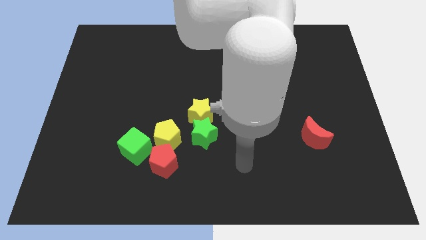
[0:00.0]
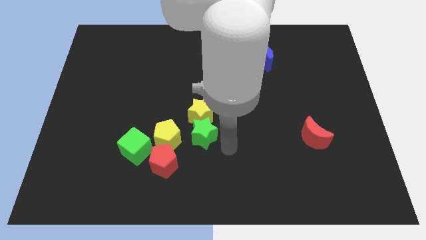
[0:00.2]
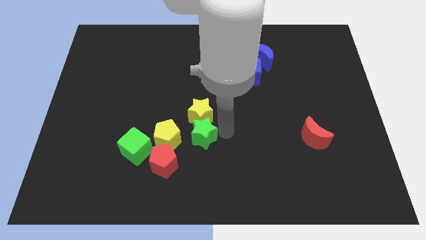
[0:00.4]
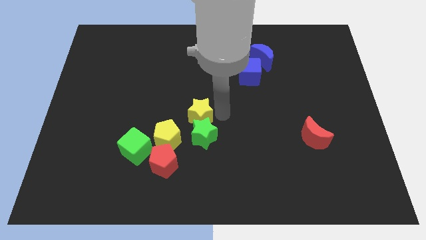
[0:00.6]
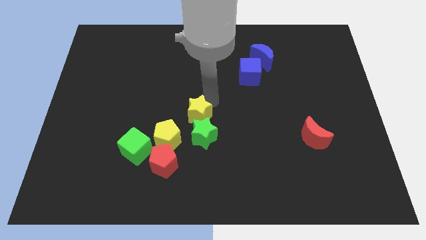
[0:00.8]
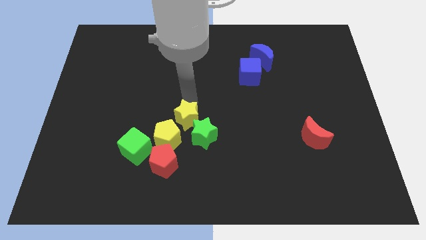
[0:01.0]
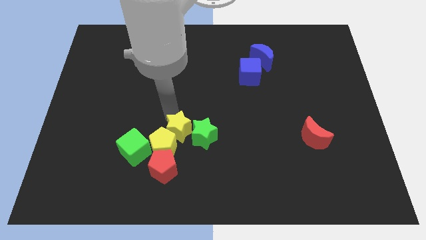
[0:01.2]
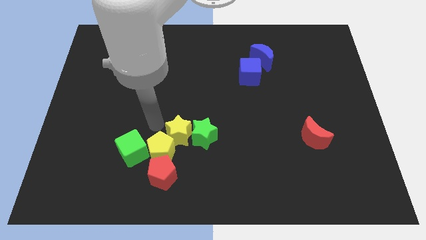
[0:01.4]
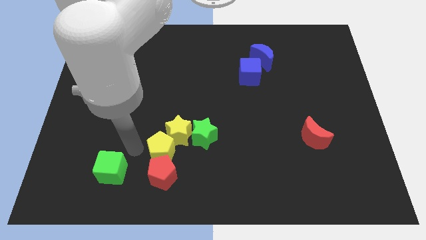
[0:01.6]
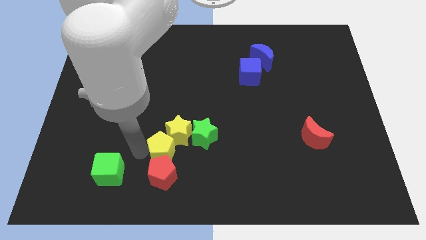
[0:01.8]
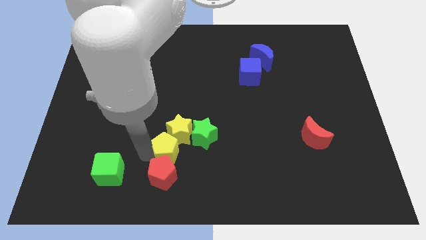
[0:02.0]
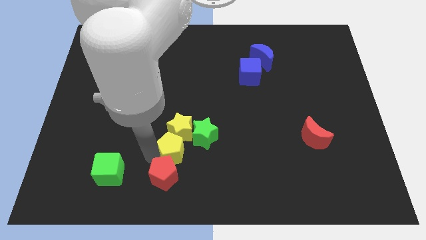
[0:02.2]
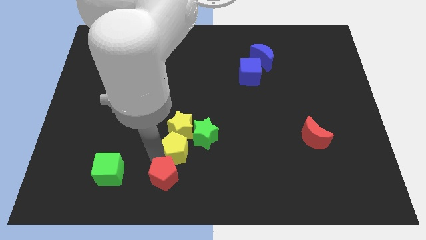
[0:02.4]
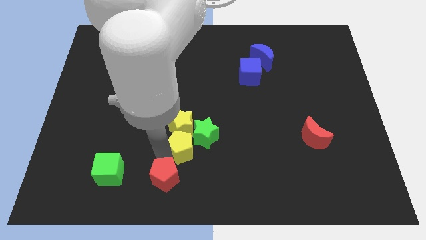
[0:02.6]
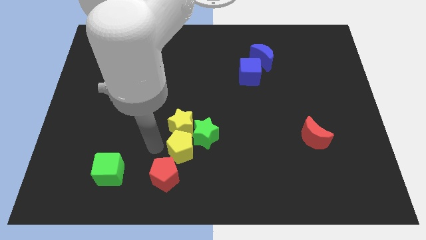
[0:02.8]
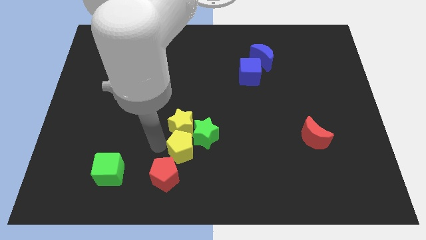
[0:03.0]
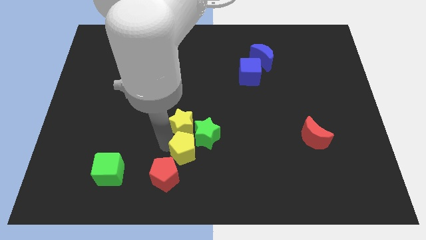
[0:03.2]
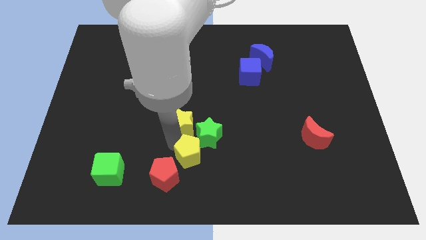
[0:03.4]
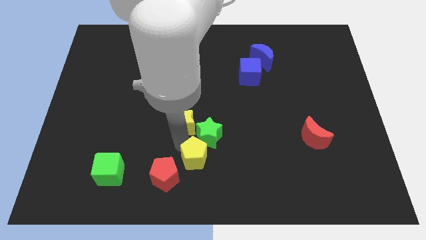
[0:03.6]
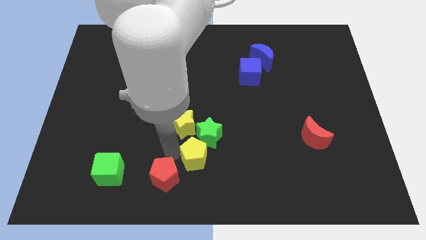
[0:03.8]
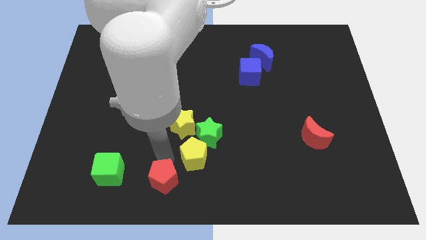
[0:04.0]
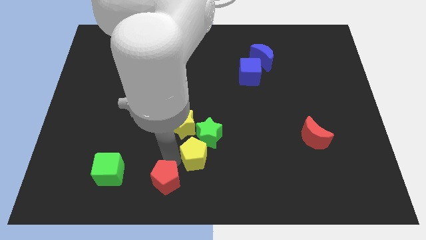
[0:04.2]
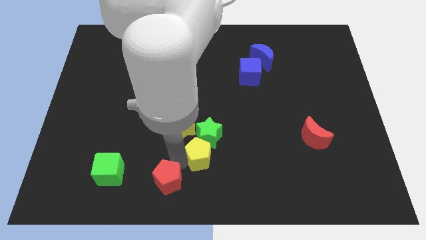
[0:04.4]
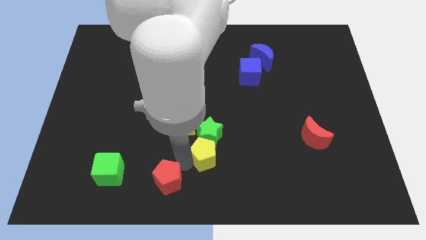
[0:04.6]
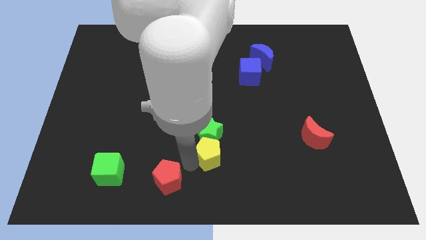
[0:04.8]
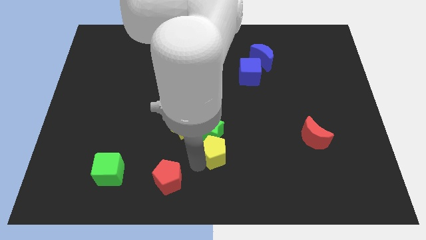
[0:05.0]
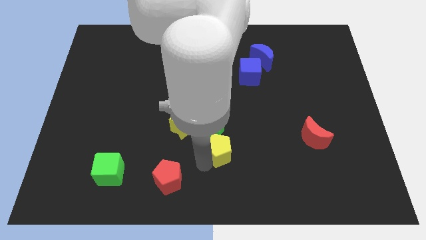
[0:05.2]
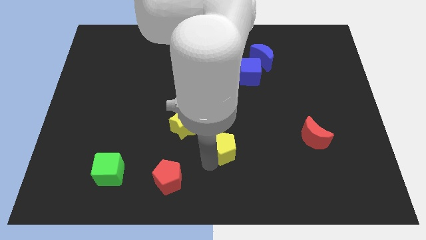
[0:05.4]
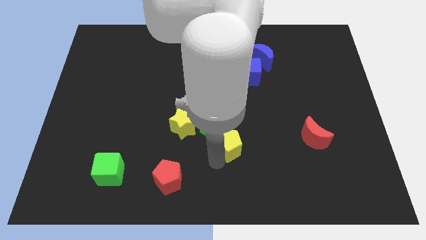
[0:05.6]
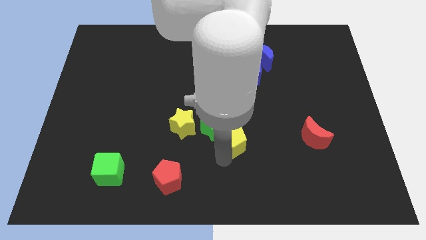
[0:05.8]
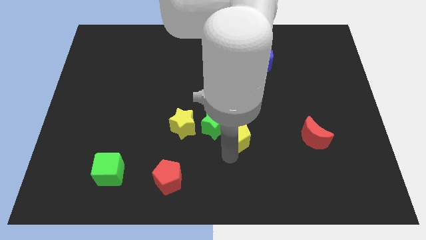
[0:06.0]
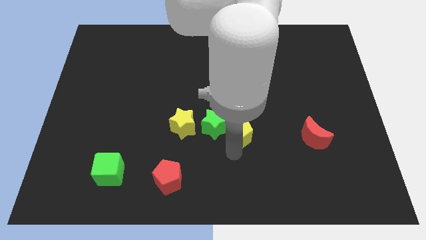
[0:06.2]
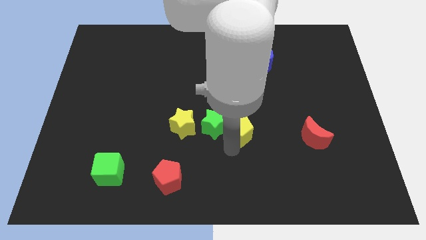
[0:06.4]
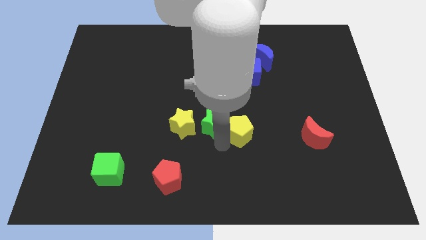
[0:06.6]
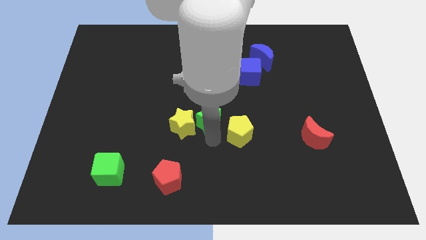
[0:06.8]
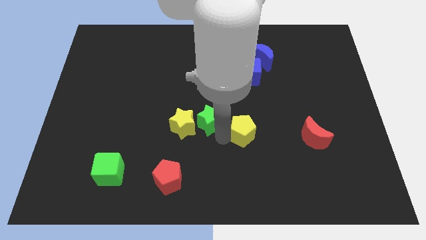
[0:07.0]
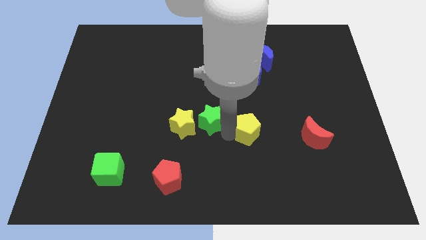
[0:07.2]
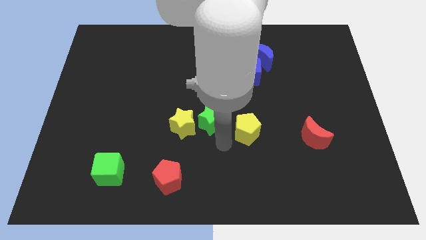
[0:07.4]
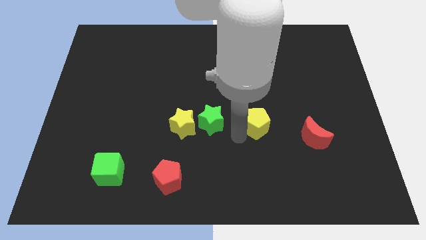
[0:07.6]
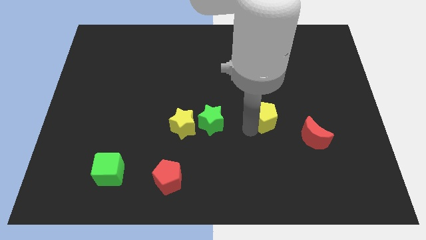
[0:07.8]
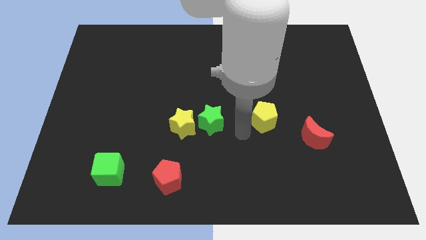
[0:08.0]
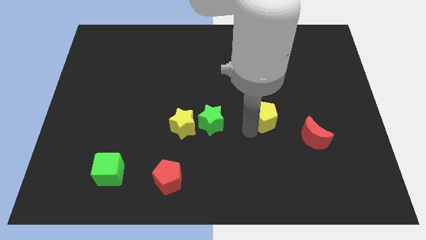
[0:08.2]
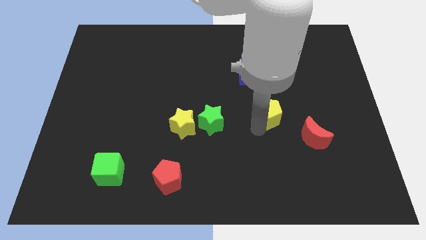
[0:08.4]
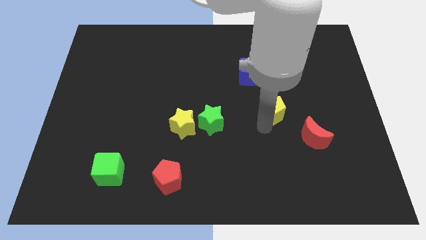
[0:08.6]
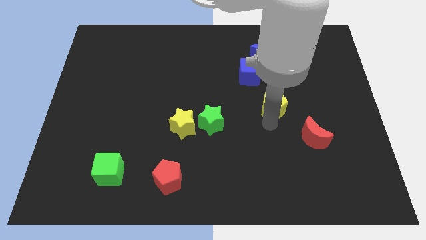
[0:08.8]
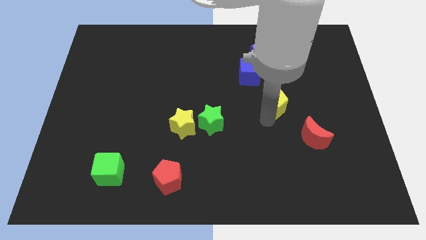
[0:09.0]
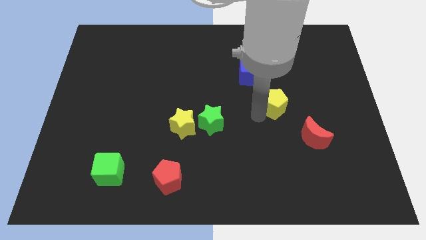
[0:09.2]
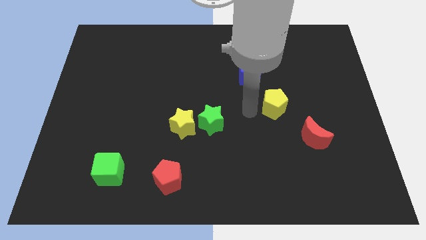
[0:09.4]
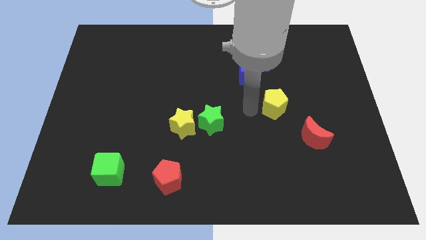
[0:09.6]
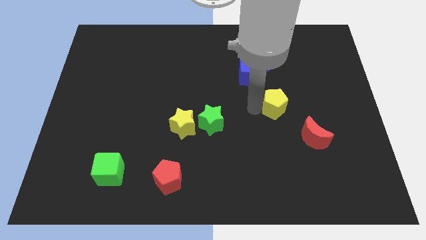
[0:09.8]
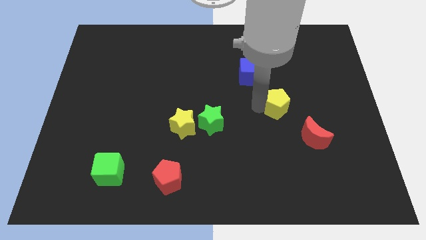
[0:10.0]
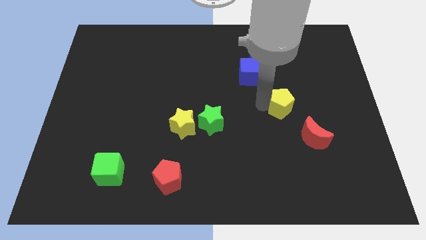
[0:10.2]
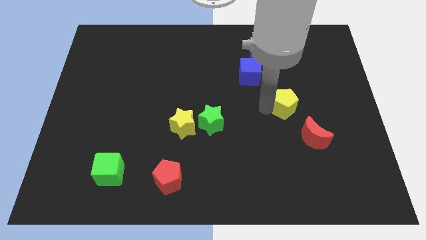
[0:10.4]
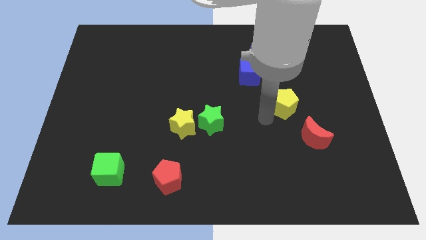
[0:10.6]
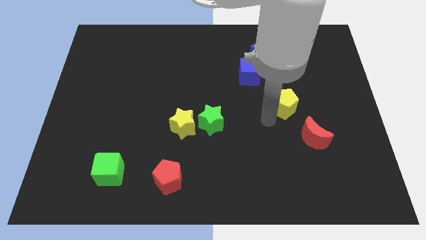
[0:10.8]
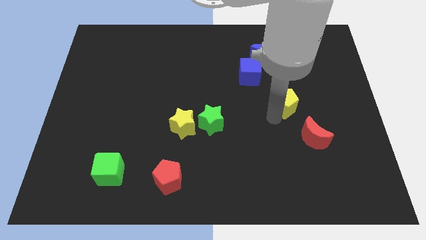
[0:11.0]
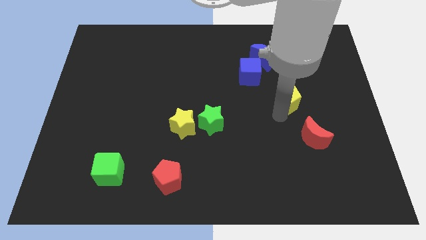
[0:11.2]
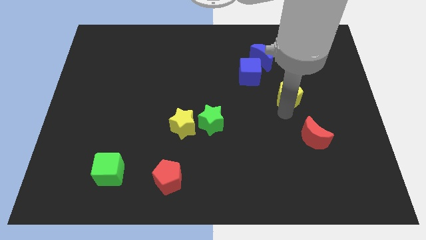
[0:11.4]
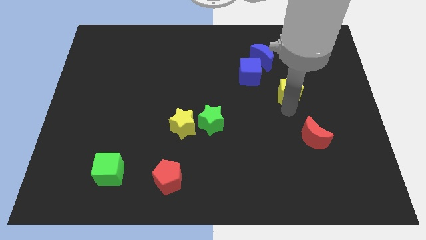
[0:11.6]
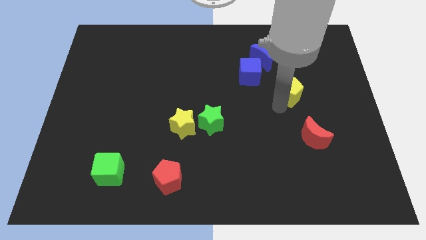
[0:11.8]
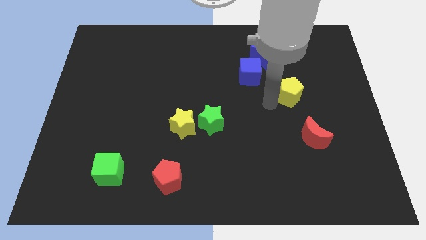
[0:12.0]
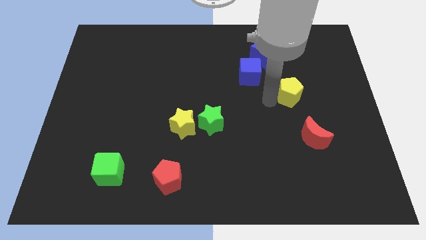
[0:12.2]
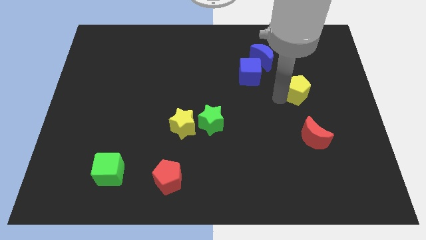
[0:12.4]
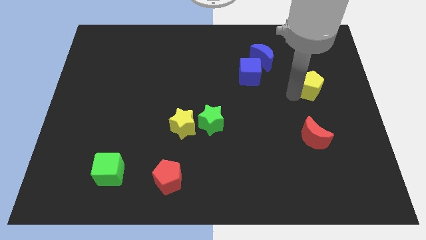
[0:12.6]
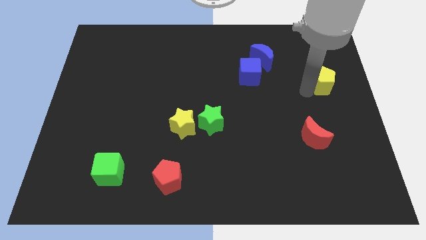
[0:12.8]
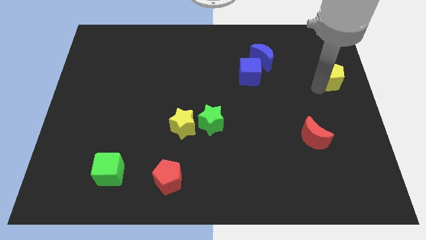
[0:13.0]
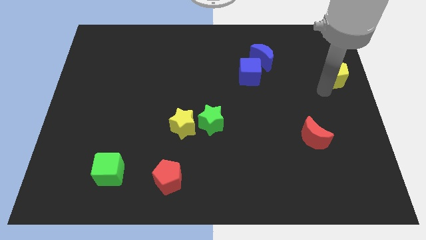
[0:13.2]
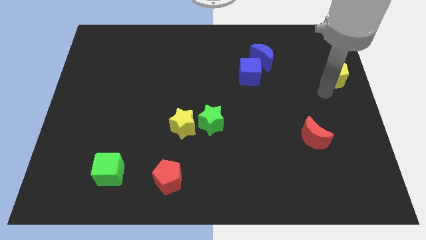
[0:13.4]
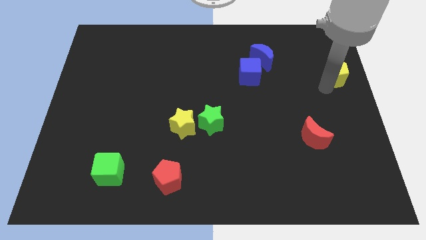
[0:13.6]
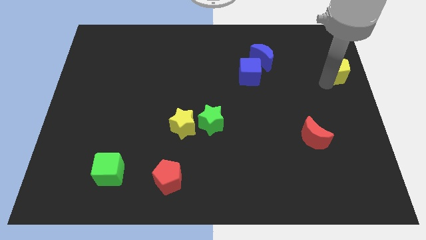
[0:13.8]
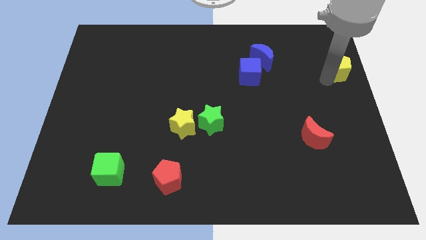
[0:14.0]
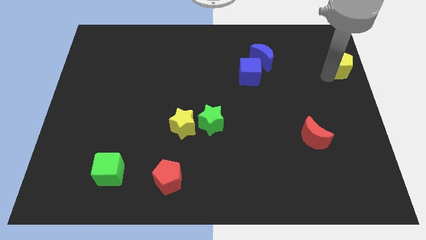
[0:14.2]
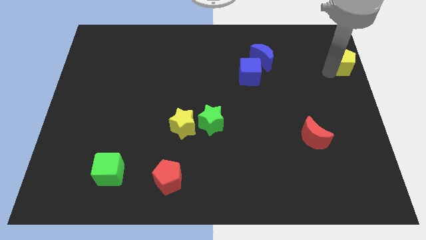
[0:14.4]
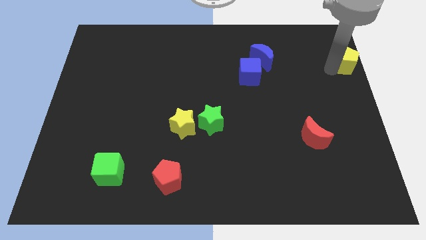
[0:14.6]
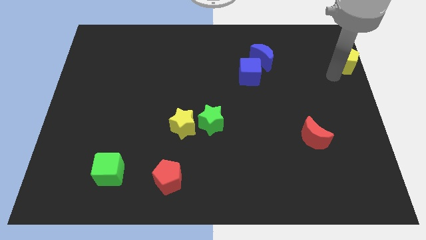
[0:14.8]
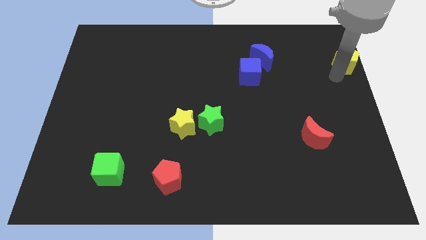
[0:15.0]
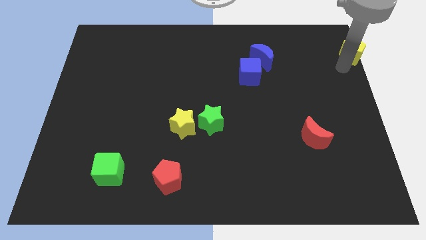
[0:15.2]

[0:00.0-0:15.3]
slide the yellow pentagon to the upper right corner
